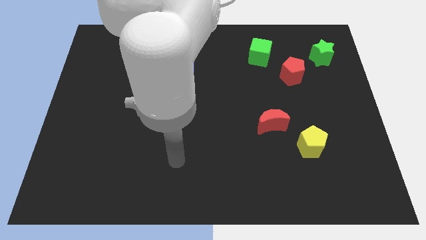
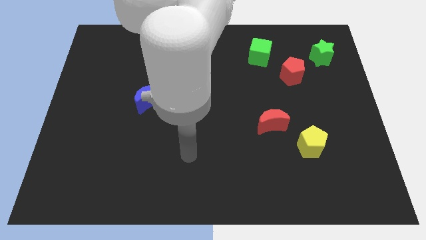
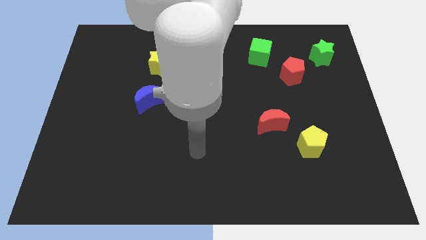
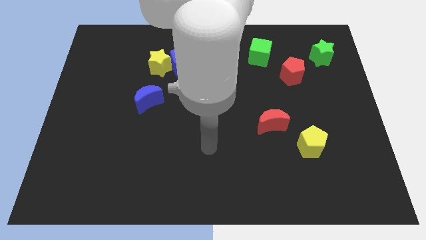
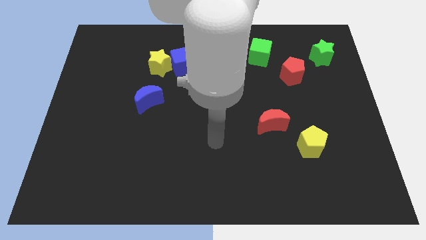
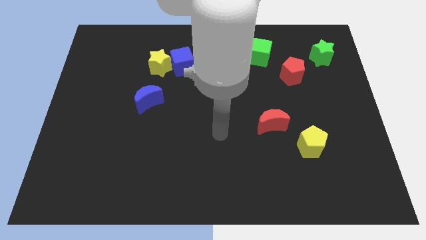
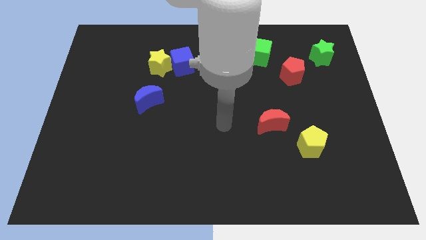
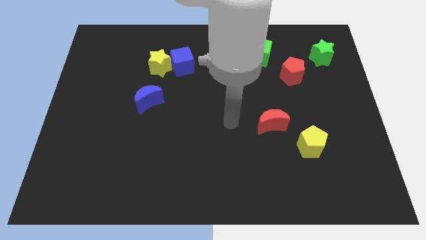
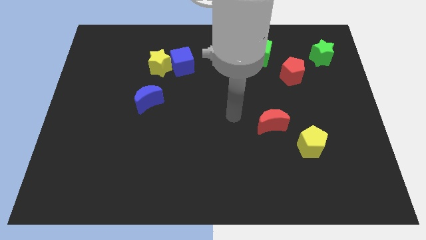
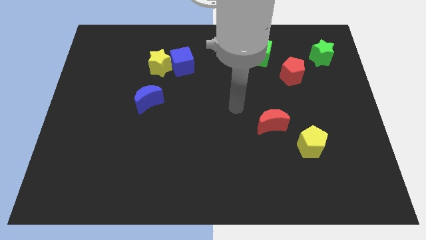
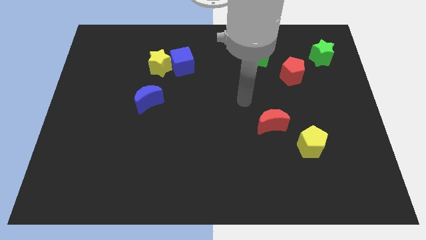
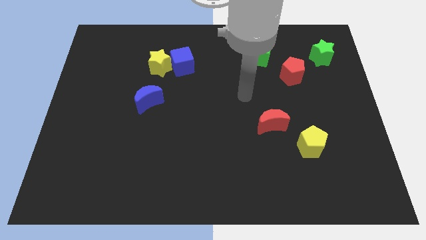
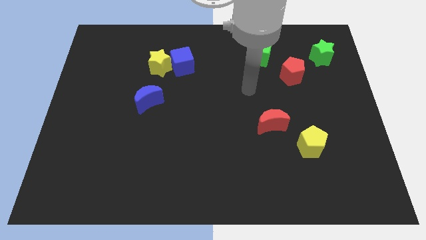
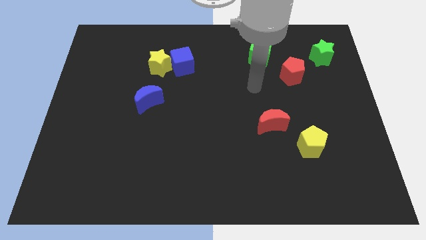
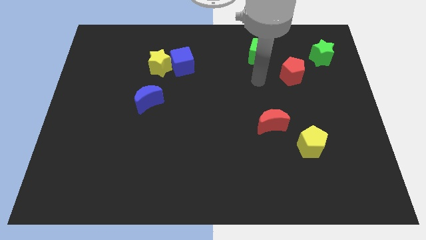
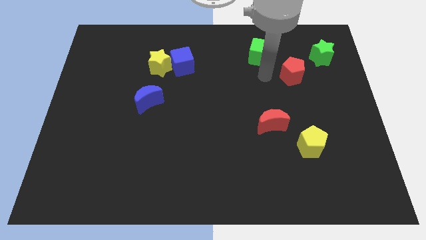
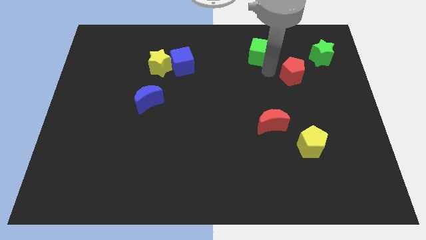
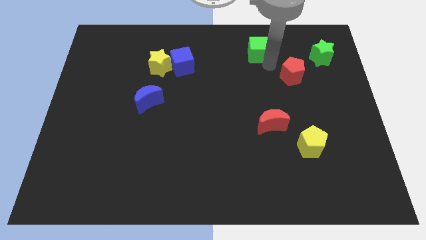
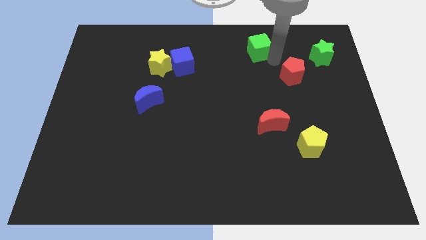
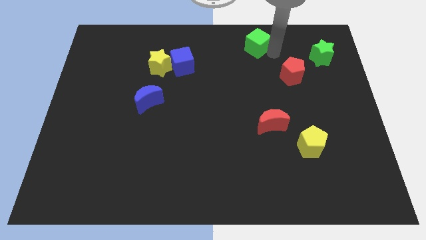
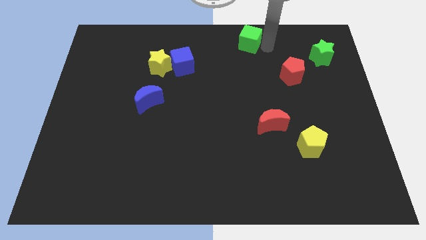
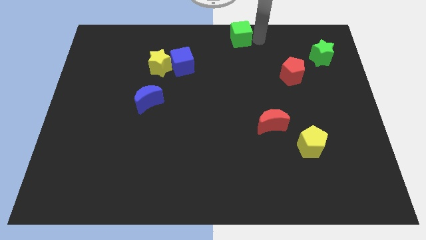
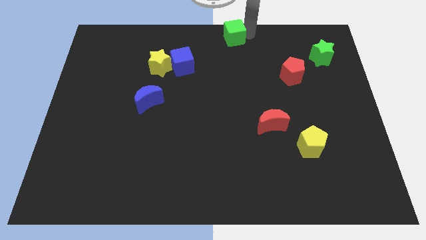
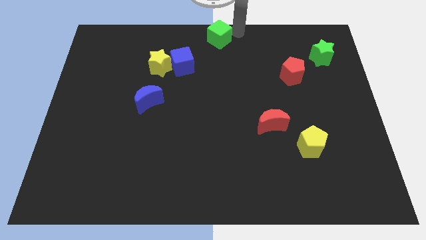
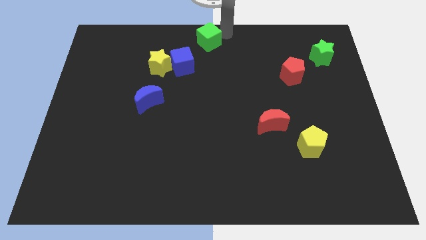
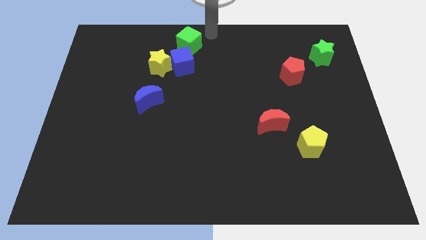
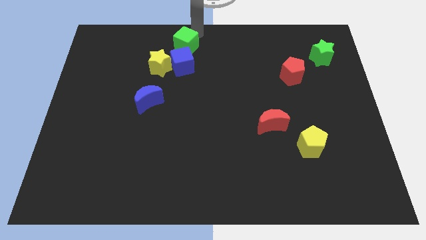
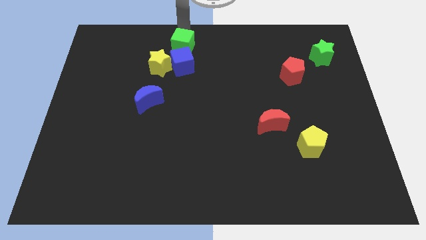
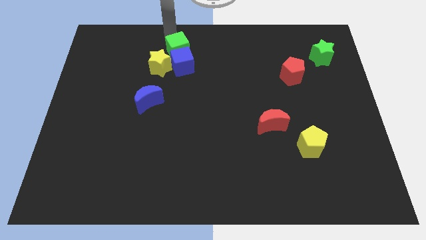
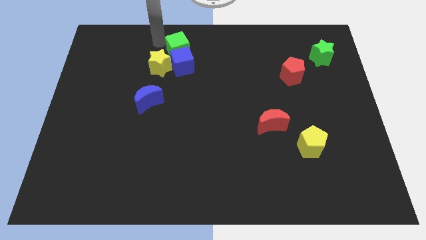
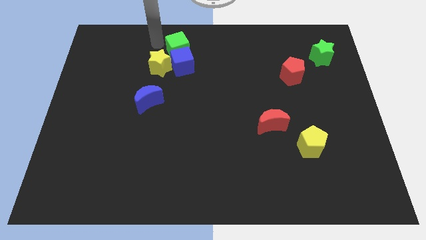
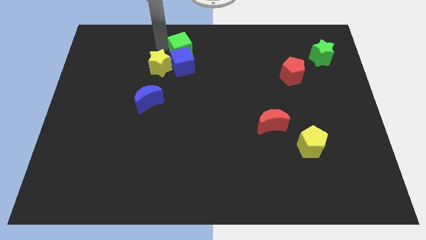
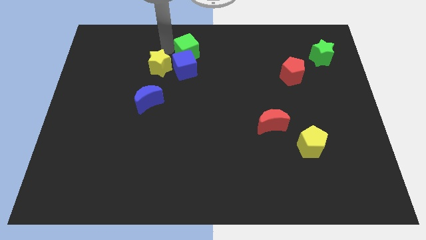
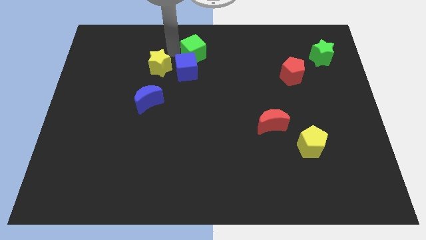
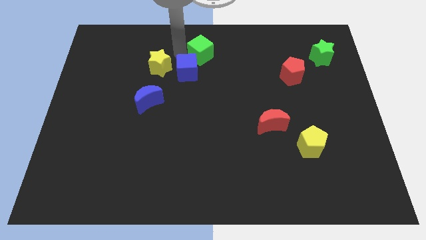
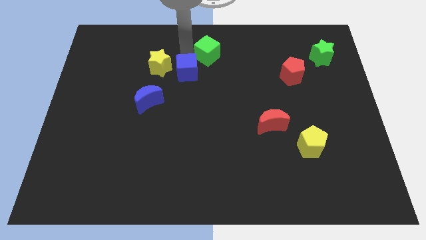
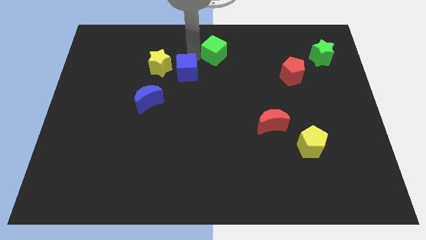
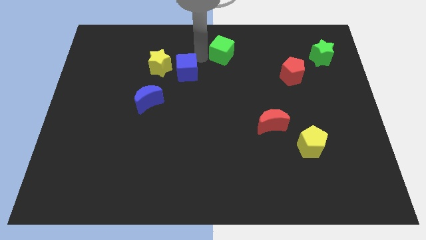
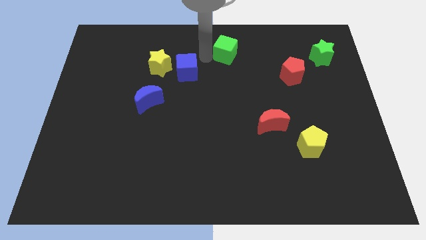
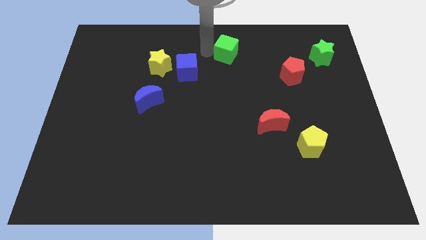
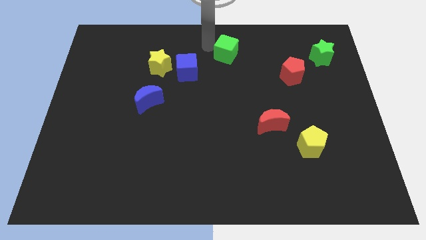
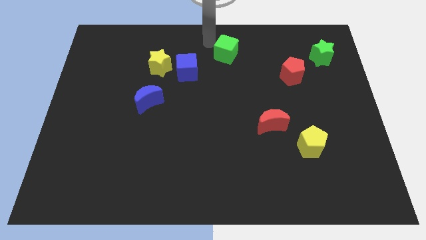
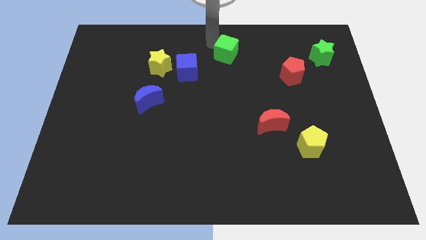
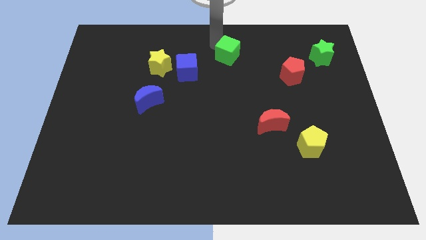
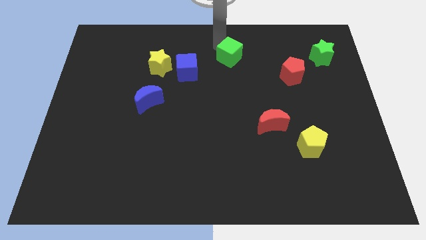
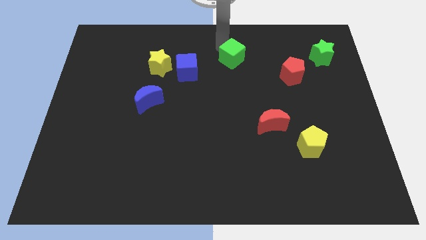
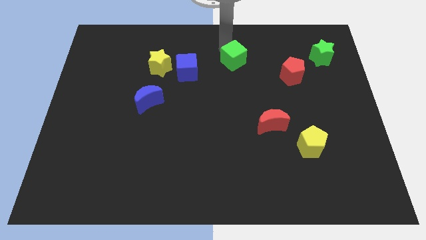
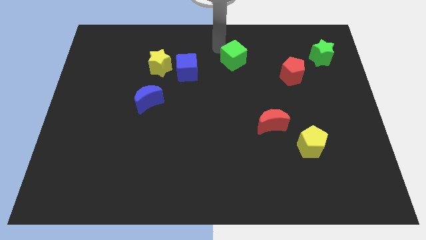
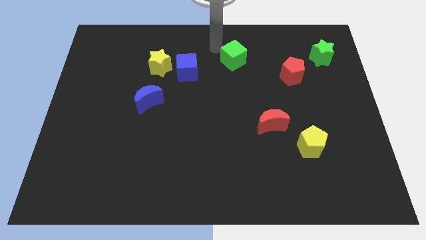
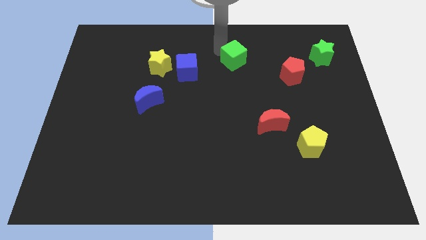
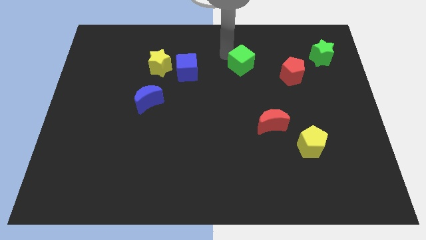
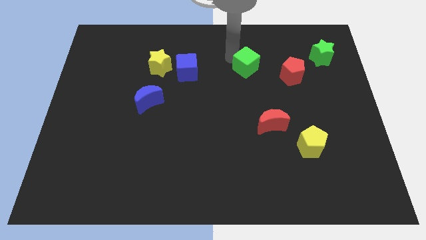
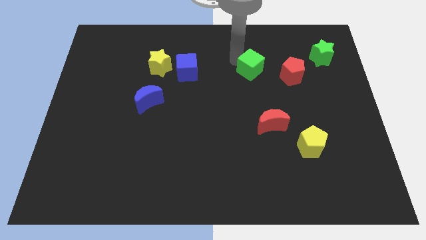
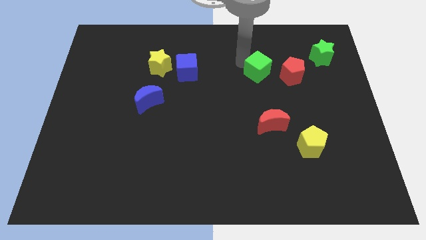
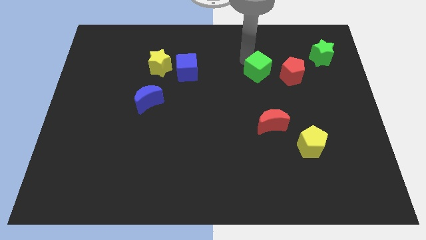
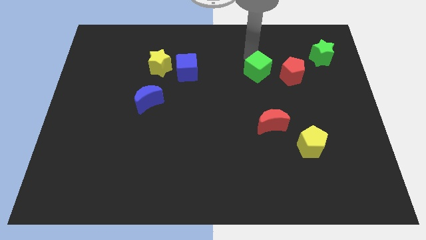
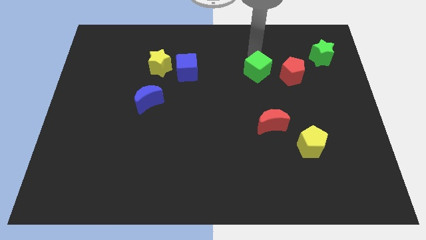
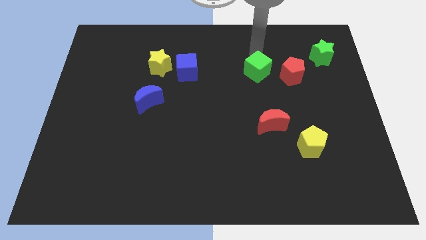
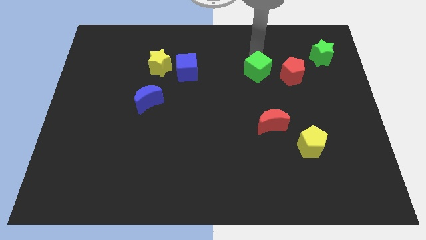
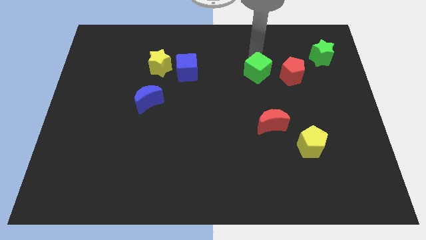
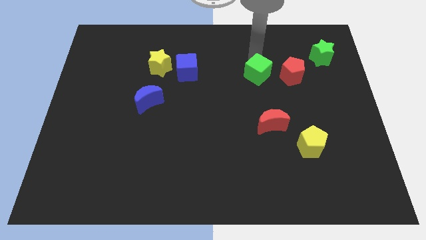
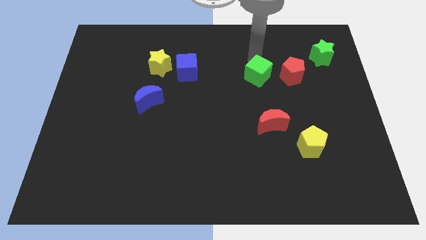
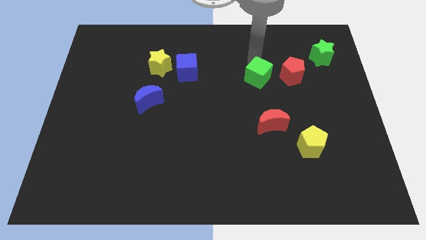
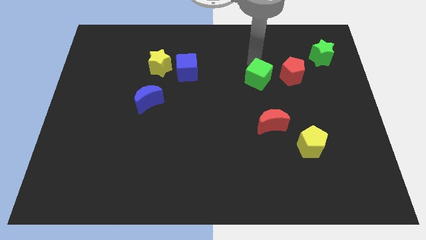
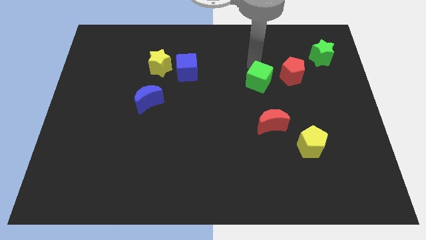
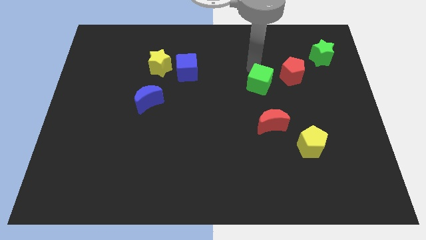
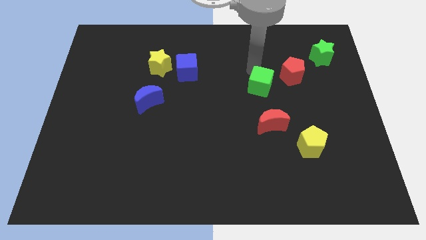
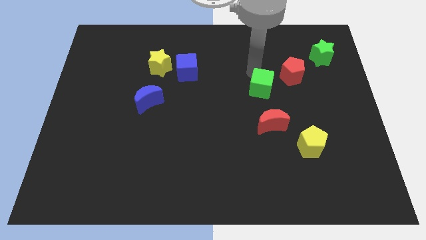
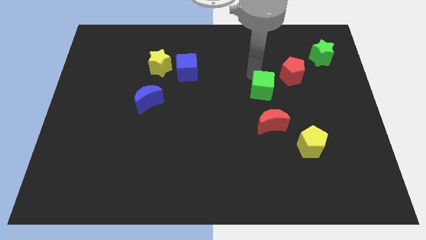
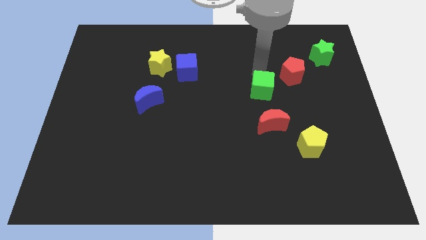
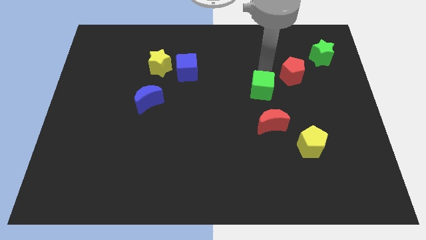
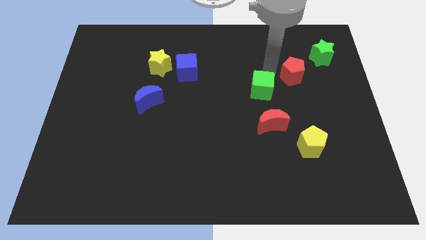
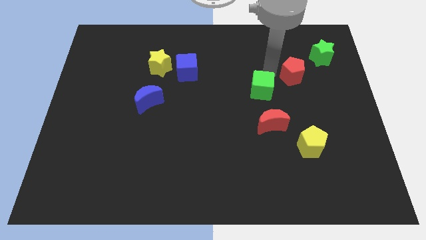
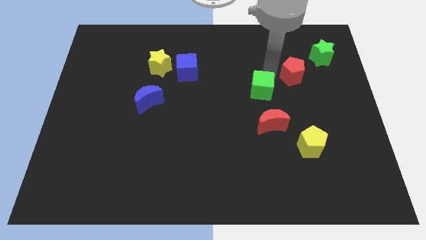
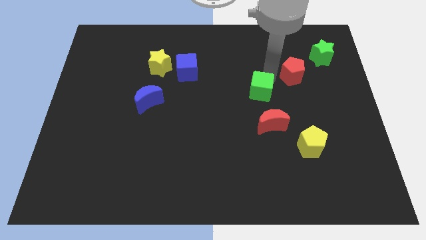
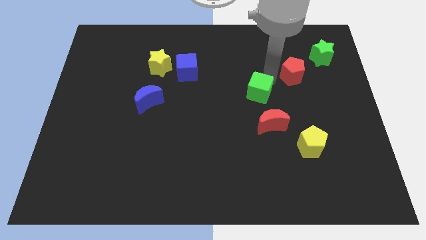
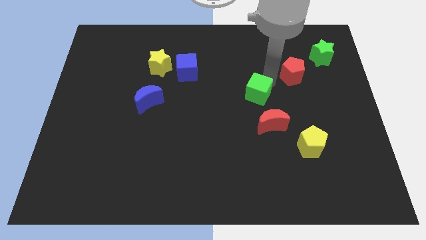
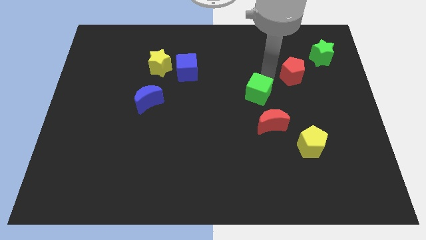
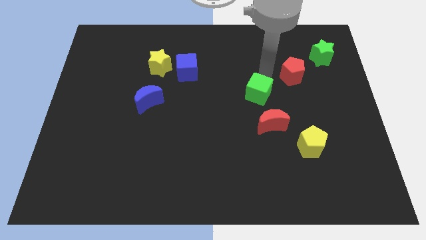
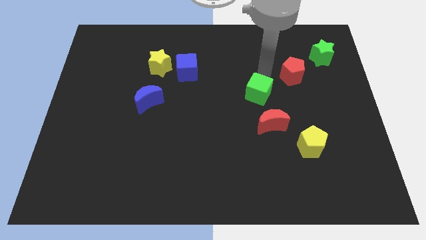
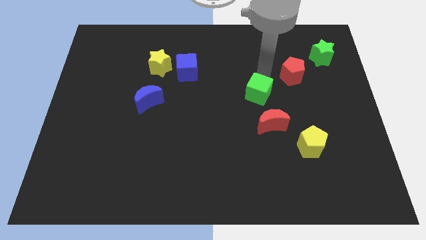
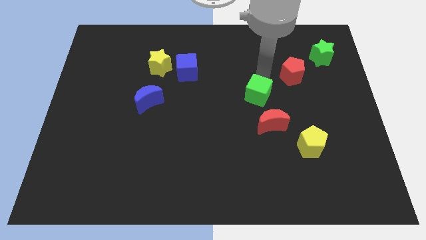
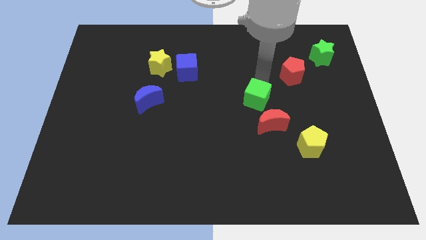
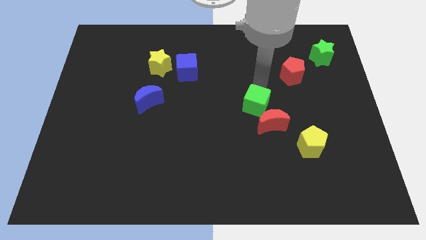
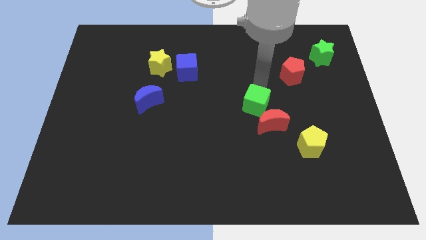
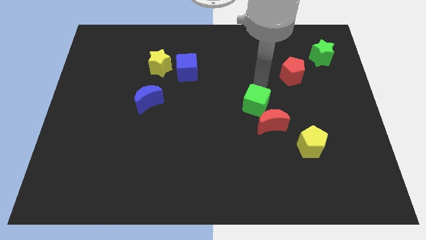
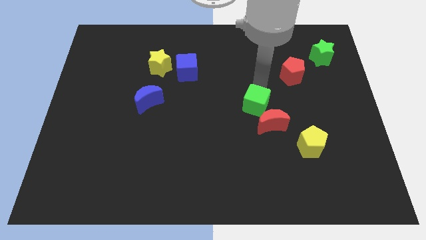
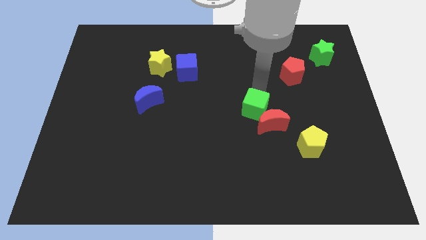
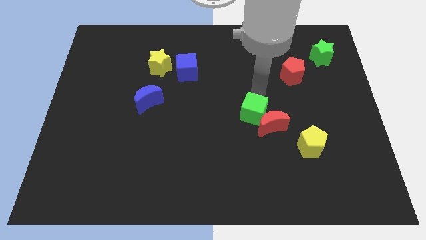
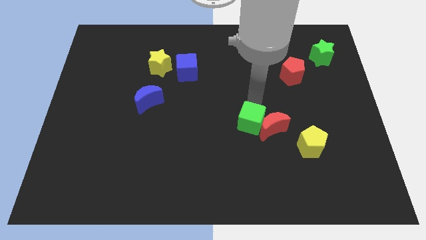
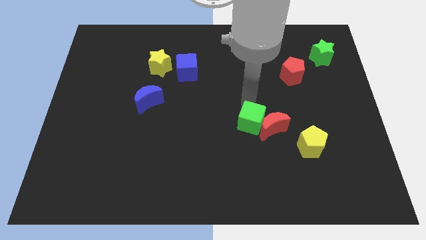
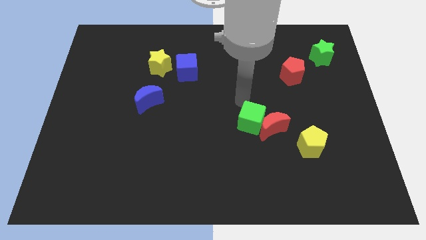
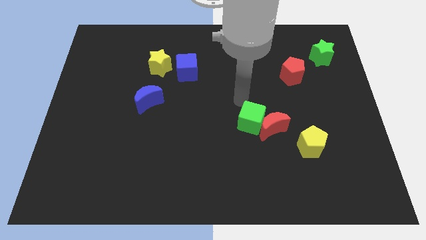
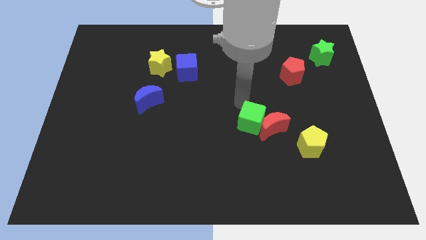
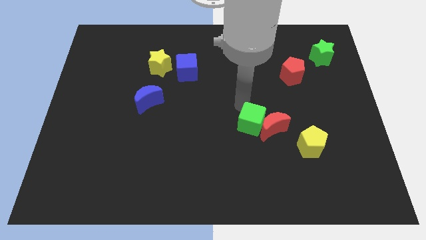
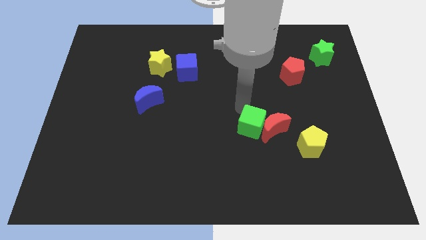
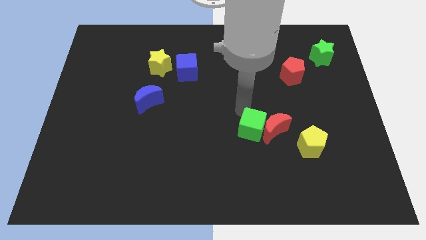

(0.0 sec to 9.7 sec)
push the green cube to the left side of the yellow pentagon
